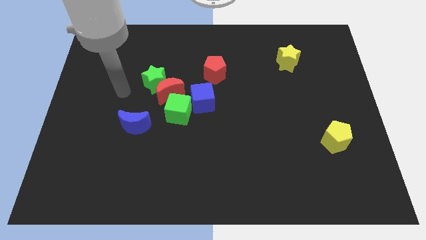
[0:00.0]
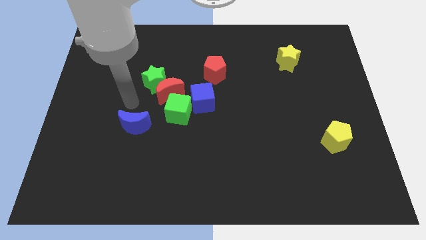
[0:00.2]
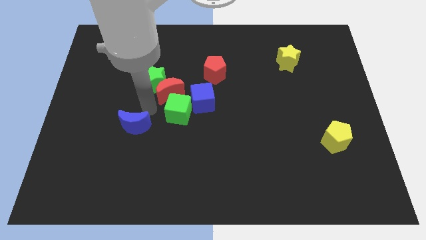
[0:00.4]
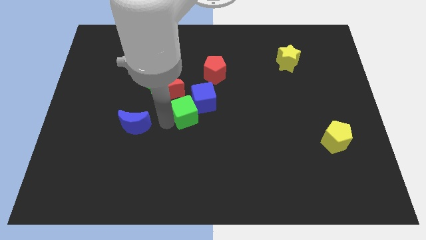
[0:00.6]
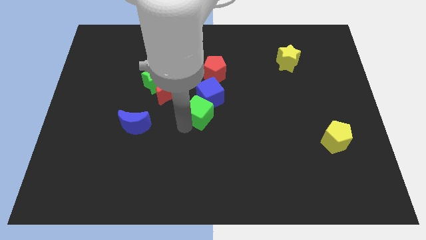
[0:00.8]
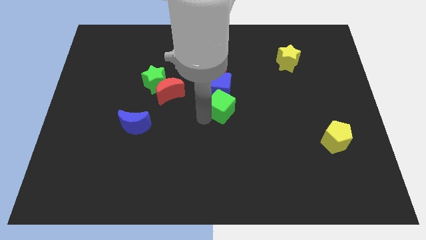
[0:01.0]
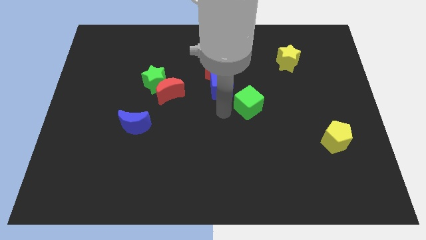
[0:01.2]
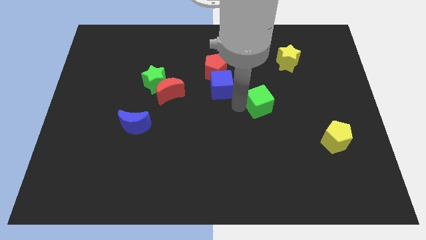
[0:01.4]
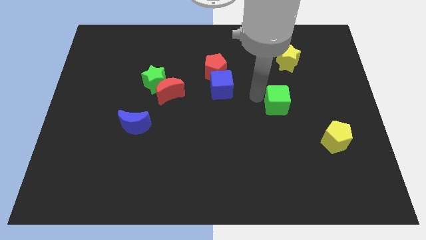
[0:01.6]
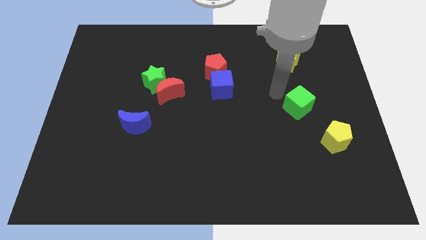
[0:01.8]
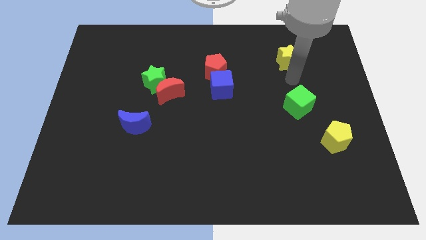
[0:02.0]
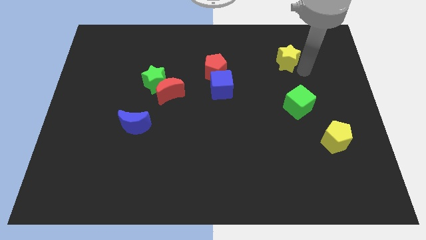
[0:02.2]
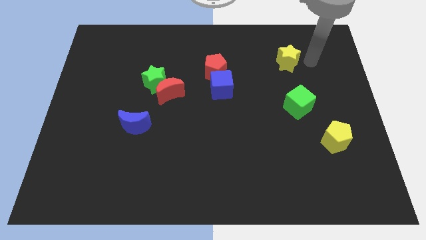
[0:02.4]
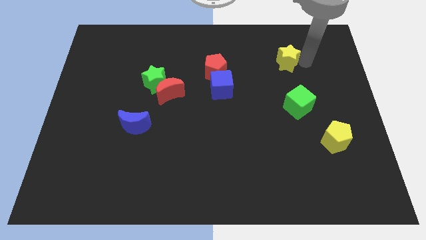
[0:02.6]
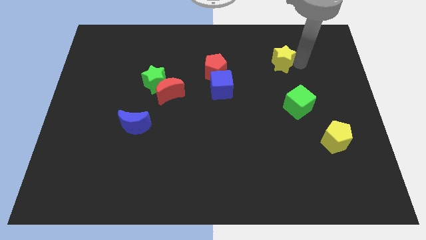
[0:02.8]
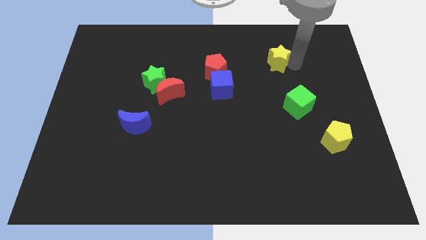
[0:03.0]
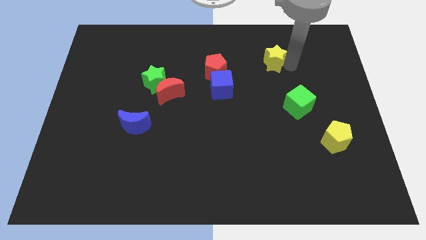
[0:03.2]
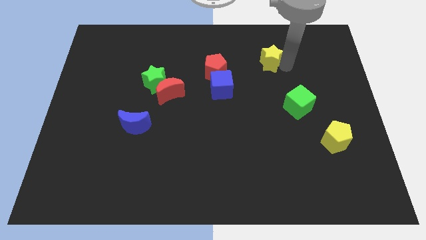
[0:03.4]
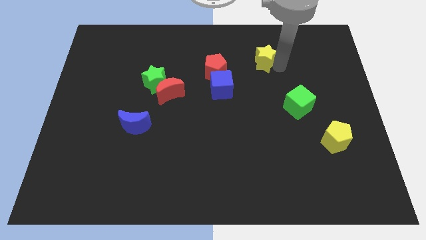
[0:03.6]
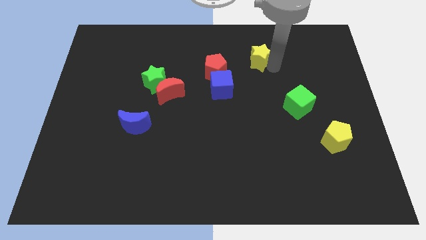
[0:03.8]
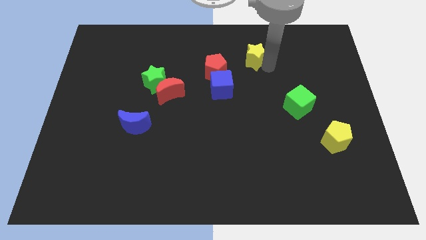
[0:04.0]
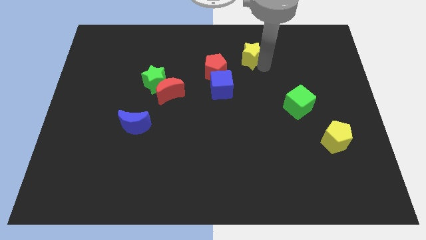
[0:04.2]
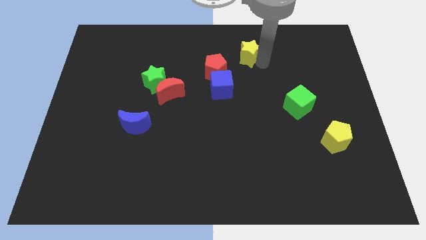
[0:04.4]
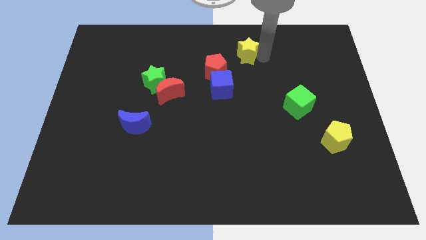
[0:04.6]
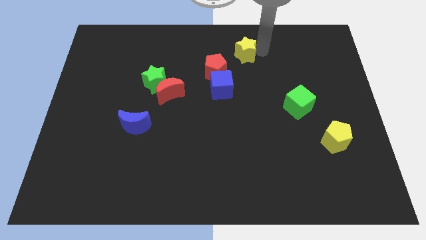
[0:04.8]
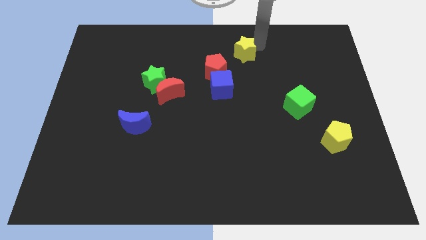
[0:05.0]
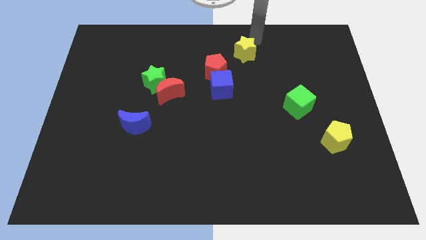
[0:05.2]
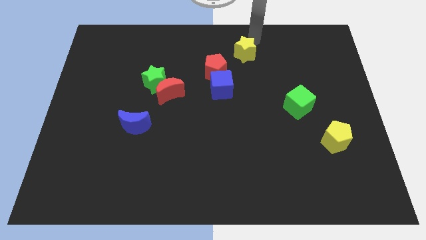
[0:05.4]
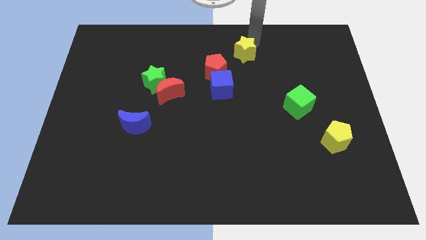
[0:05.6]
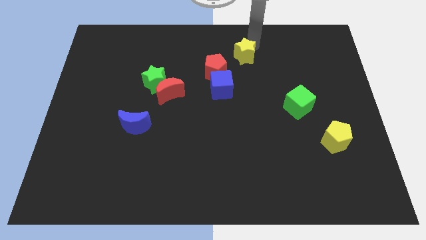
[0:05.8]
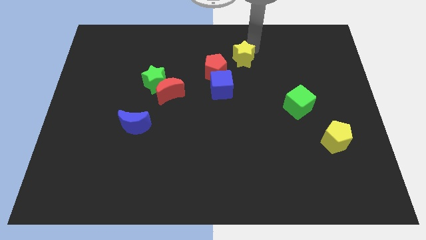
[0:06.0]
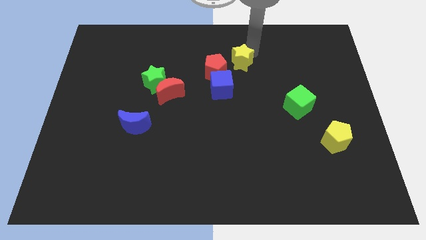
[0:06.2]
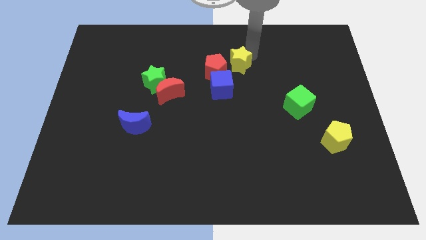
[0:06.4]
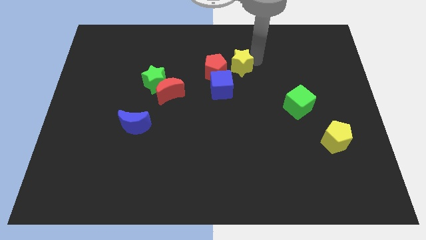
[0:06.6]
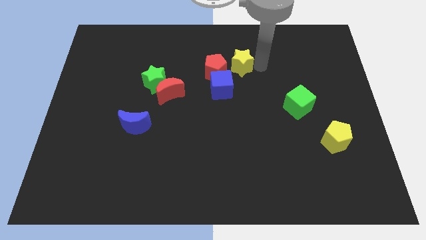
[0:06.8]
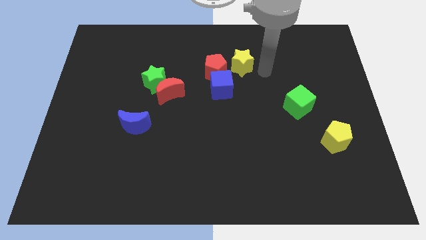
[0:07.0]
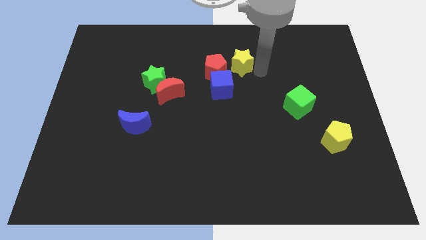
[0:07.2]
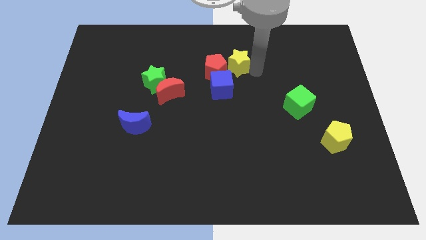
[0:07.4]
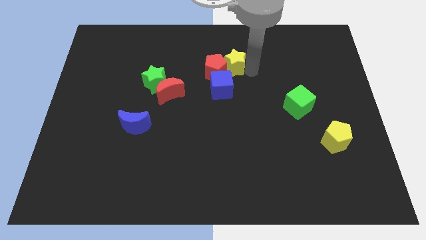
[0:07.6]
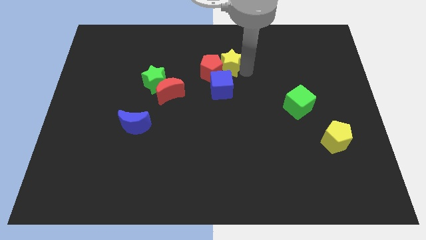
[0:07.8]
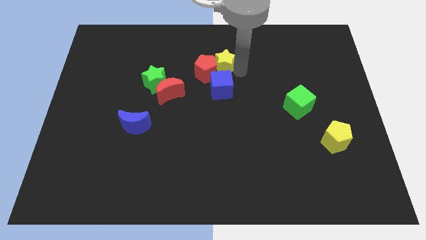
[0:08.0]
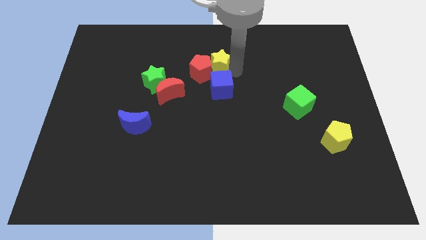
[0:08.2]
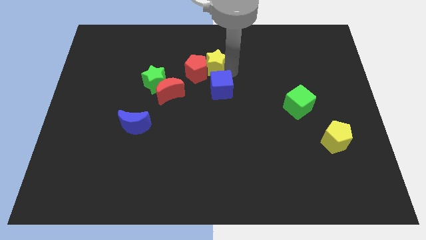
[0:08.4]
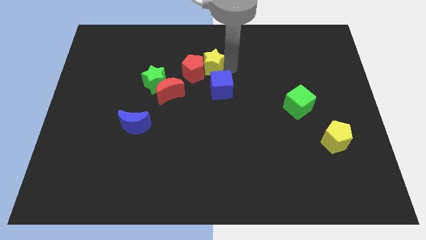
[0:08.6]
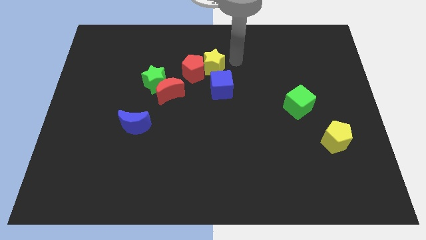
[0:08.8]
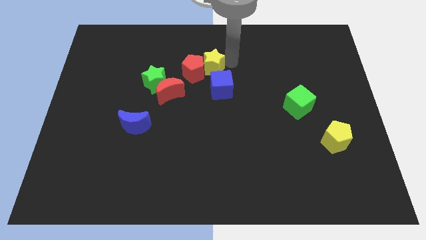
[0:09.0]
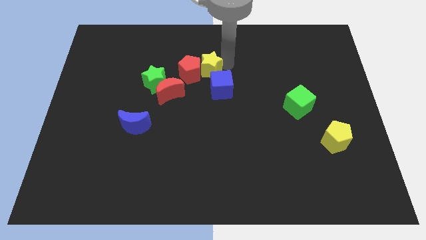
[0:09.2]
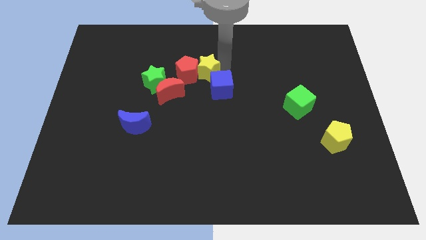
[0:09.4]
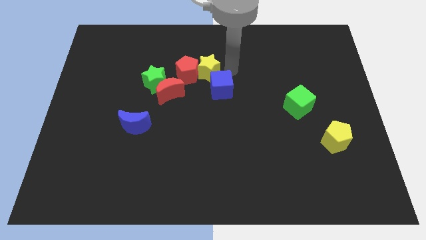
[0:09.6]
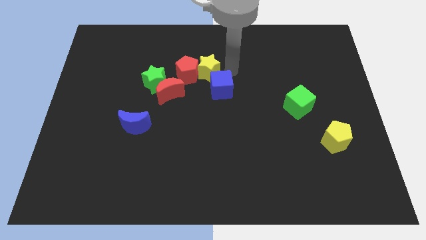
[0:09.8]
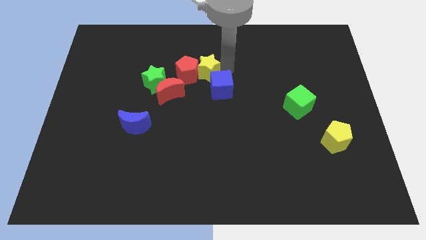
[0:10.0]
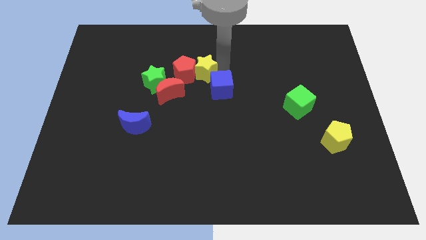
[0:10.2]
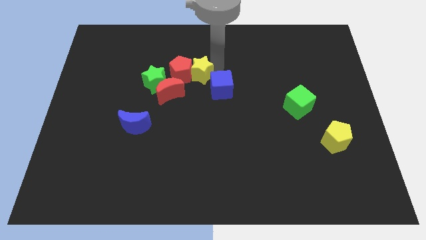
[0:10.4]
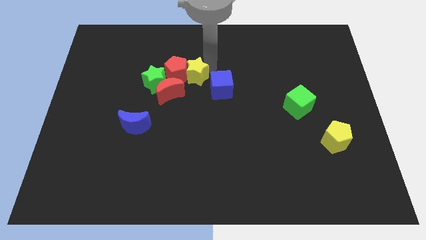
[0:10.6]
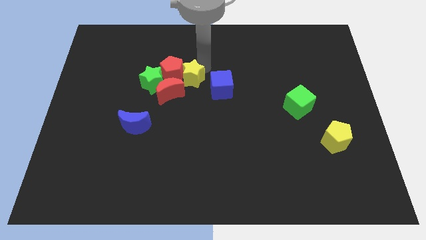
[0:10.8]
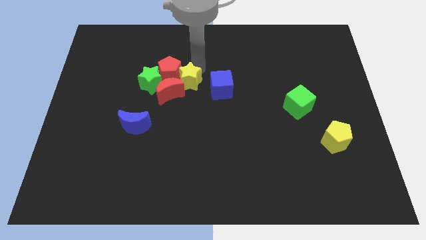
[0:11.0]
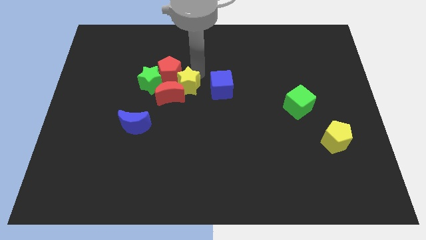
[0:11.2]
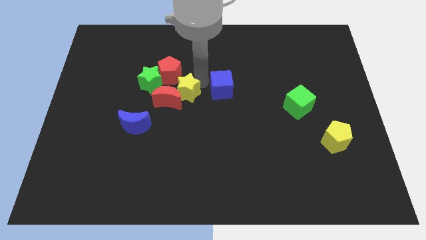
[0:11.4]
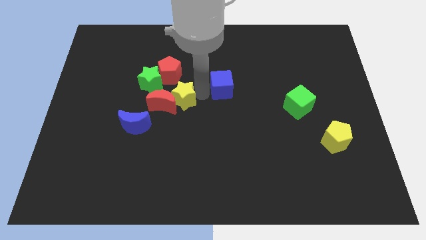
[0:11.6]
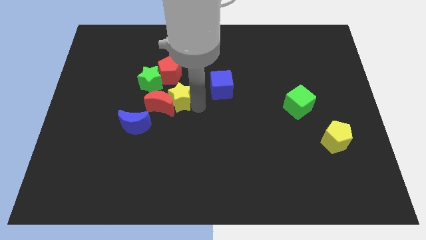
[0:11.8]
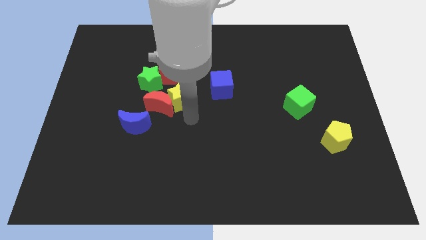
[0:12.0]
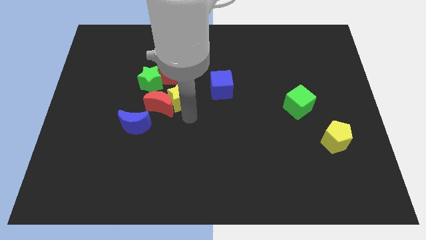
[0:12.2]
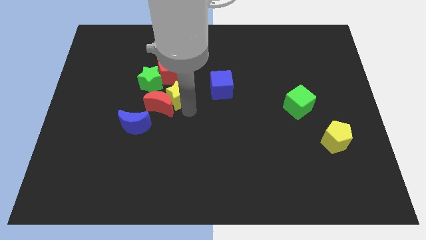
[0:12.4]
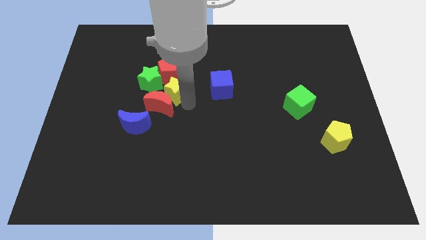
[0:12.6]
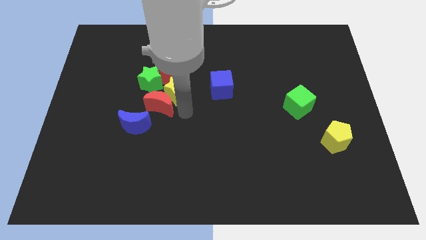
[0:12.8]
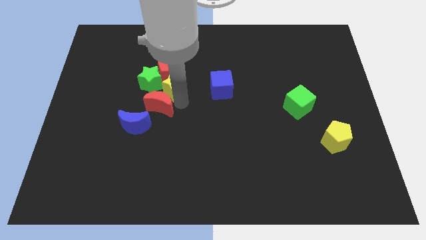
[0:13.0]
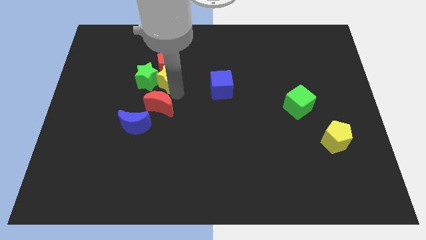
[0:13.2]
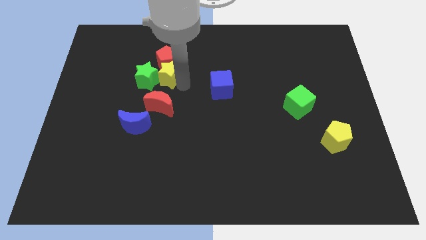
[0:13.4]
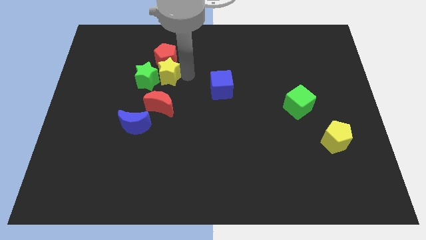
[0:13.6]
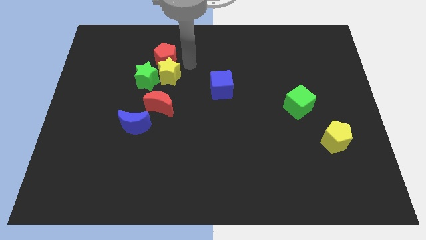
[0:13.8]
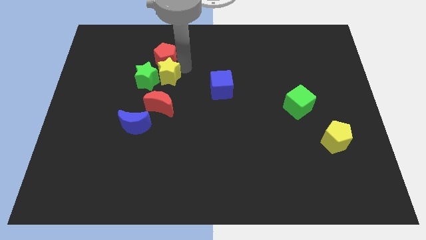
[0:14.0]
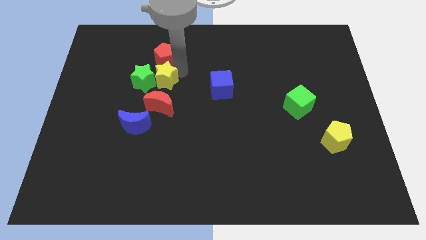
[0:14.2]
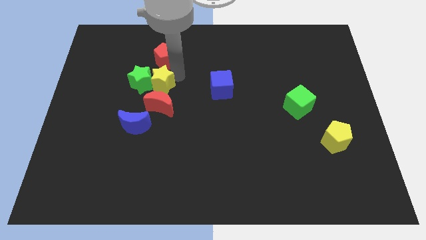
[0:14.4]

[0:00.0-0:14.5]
push the yellow star to the top left side of the red moon

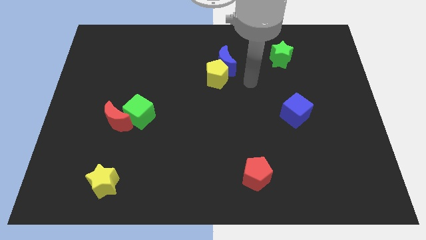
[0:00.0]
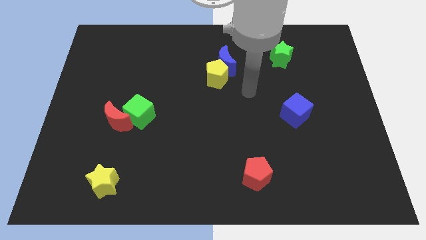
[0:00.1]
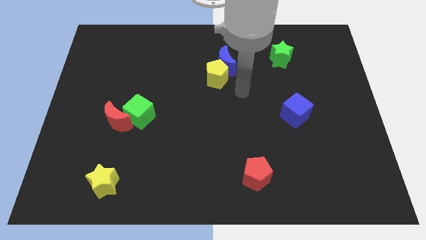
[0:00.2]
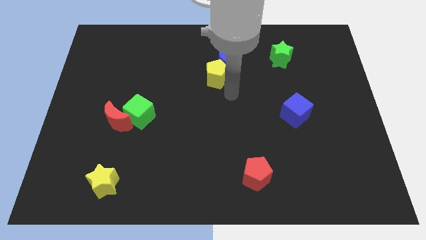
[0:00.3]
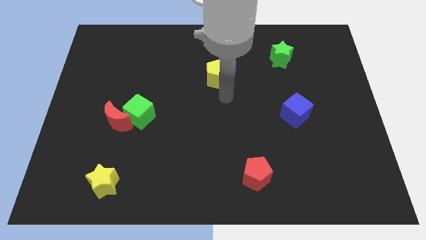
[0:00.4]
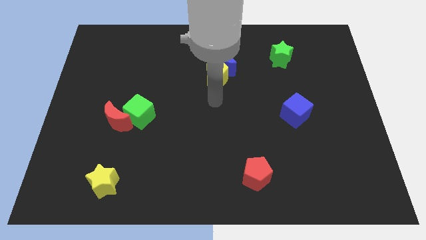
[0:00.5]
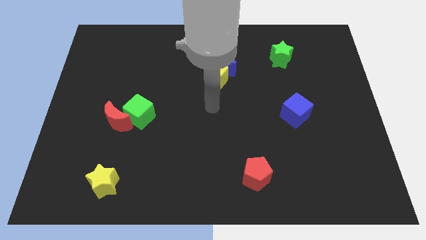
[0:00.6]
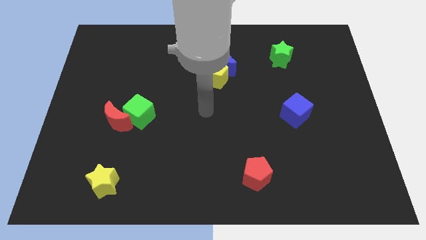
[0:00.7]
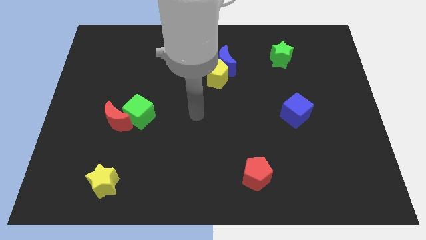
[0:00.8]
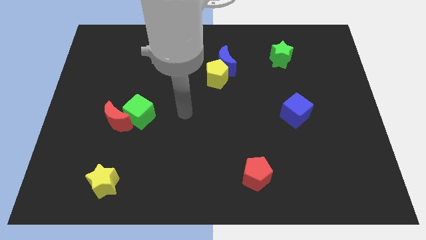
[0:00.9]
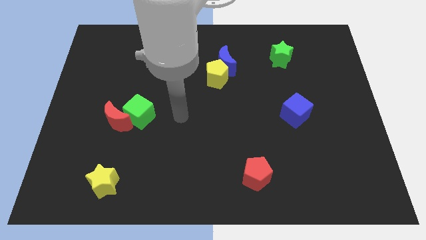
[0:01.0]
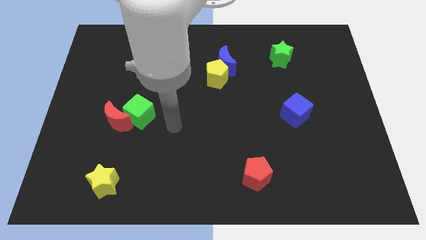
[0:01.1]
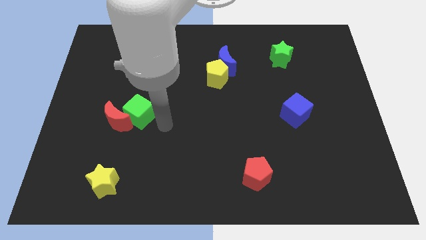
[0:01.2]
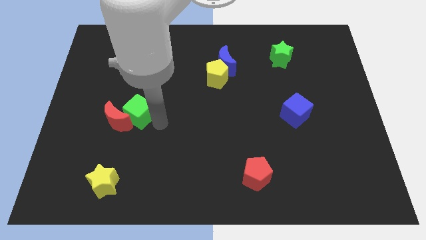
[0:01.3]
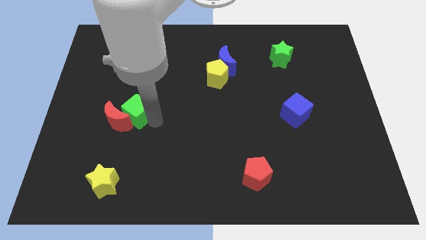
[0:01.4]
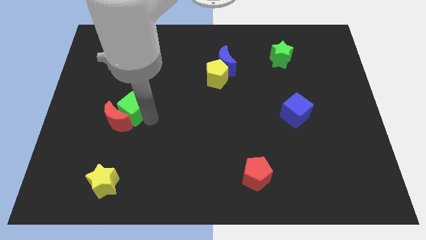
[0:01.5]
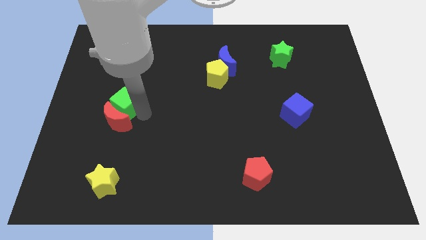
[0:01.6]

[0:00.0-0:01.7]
put the green cube to the top left of the red moon
